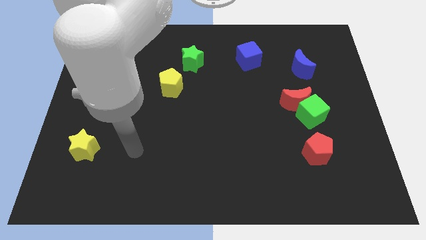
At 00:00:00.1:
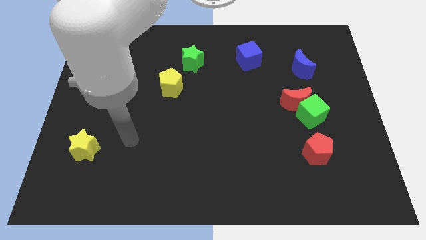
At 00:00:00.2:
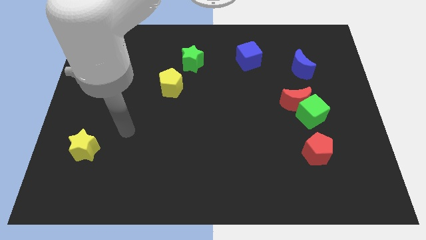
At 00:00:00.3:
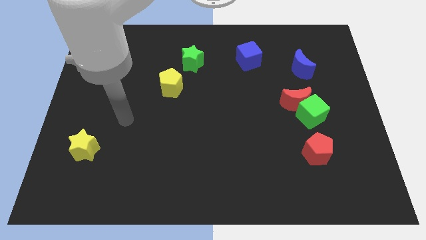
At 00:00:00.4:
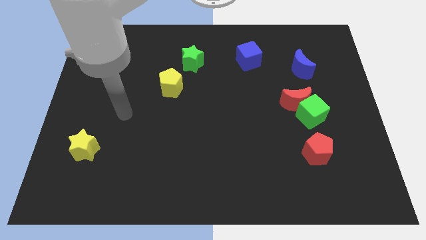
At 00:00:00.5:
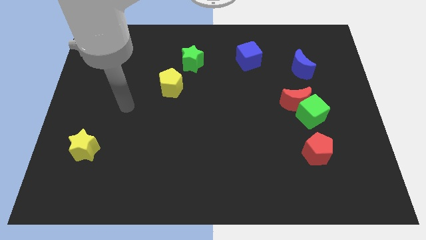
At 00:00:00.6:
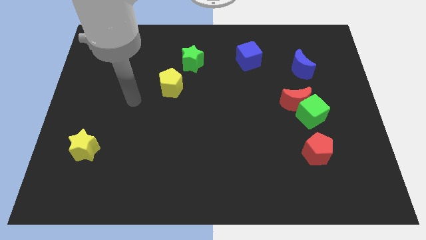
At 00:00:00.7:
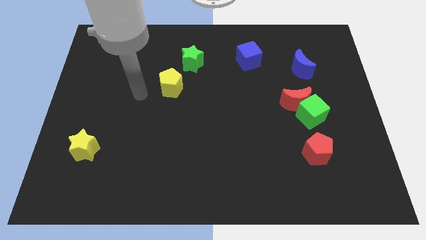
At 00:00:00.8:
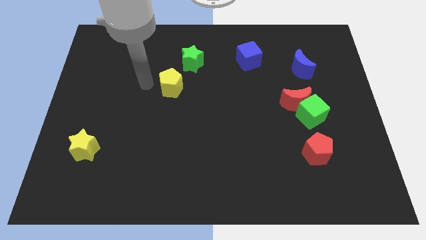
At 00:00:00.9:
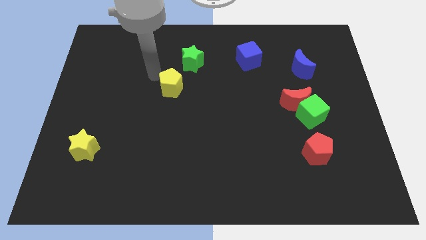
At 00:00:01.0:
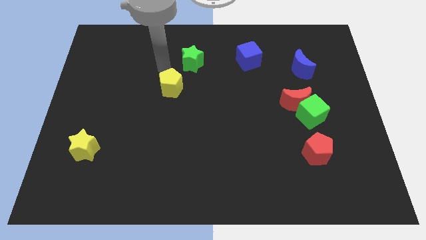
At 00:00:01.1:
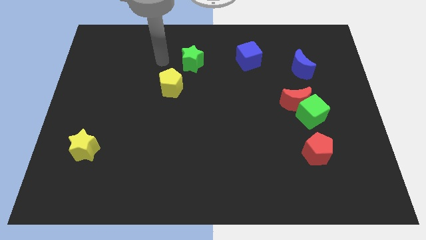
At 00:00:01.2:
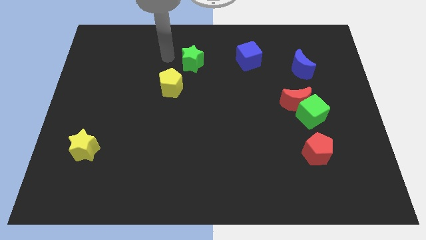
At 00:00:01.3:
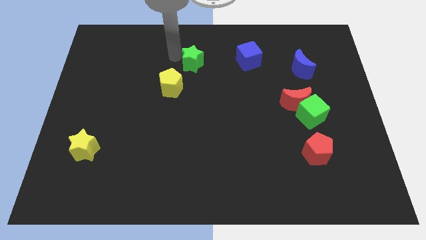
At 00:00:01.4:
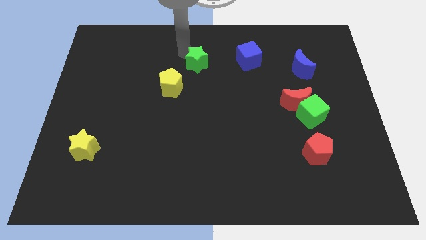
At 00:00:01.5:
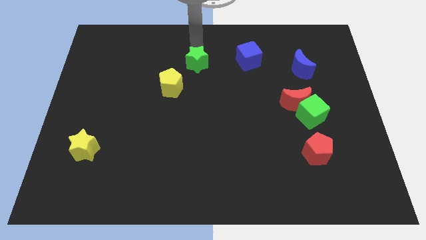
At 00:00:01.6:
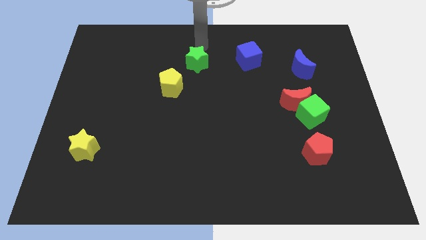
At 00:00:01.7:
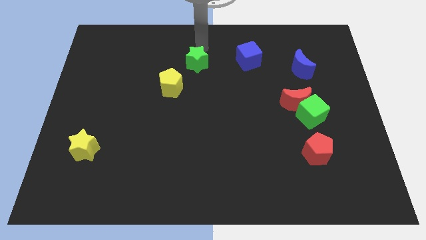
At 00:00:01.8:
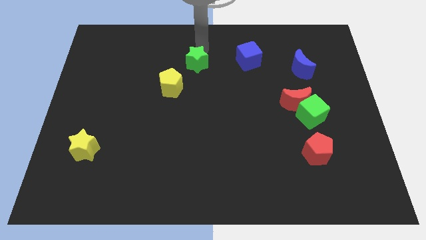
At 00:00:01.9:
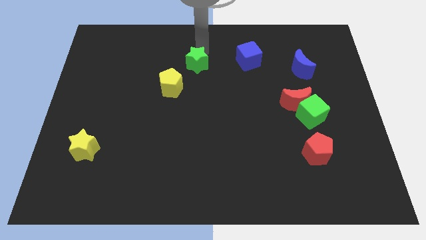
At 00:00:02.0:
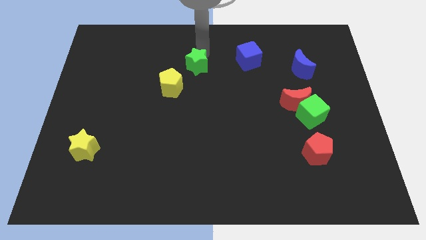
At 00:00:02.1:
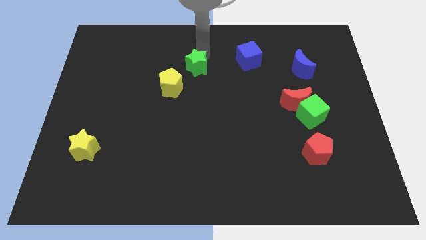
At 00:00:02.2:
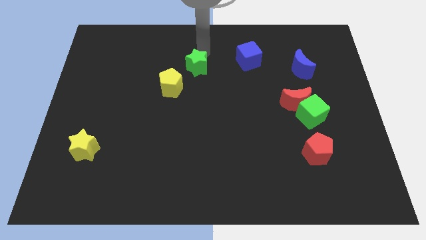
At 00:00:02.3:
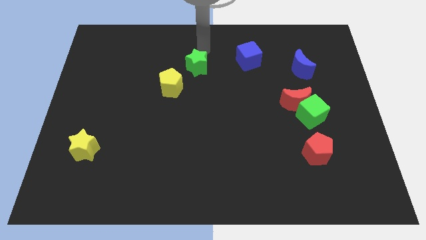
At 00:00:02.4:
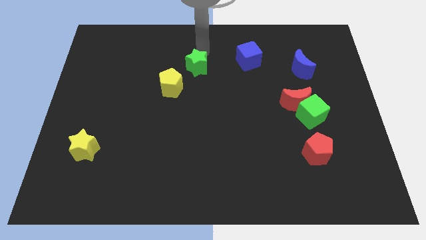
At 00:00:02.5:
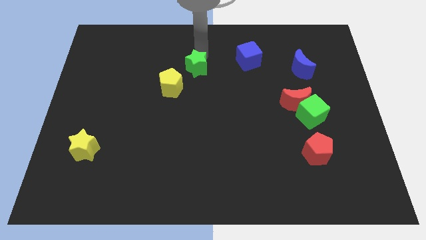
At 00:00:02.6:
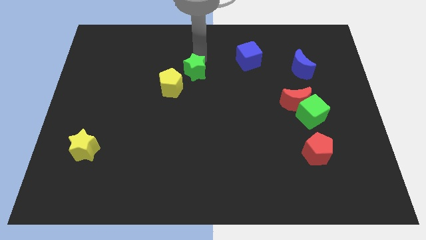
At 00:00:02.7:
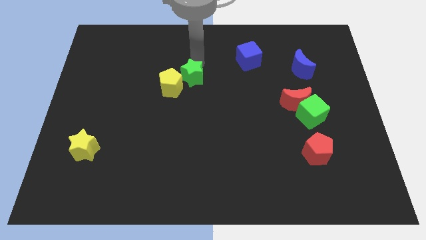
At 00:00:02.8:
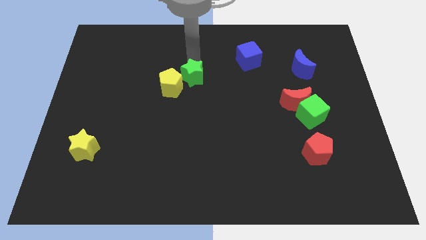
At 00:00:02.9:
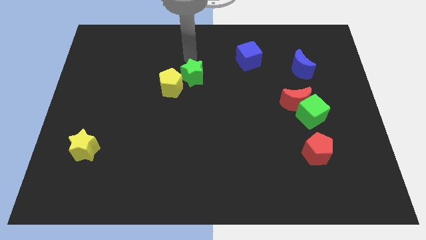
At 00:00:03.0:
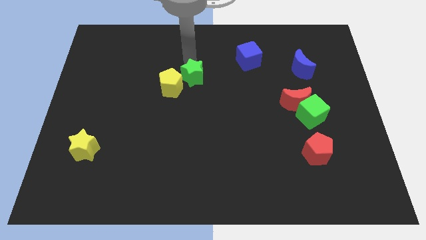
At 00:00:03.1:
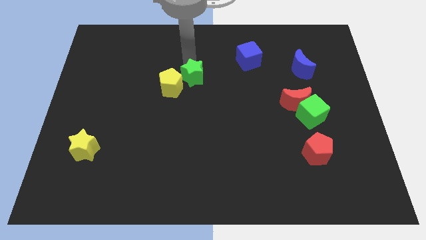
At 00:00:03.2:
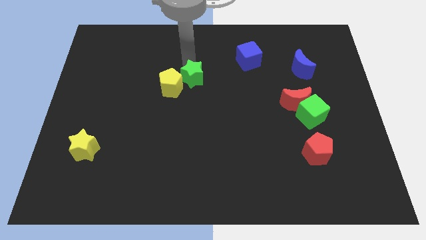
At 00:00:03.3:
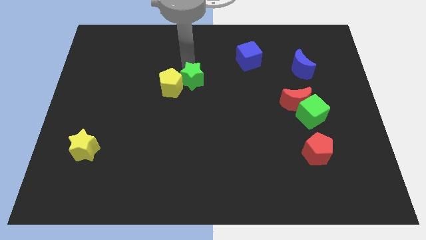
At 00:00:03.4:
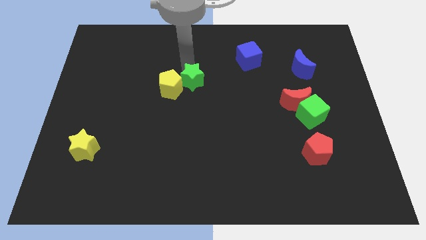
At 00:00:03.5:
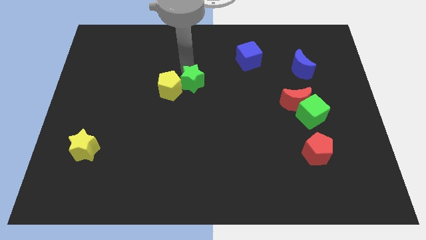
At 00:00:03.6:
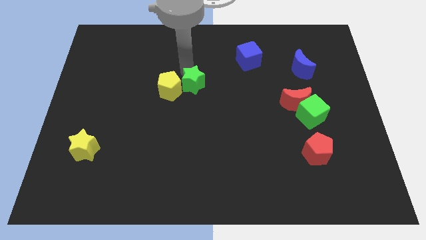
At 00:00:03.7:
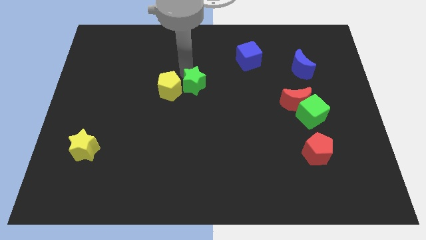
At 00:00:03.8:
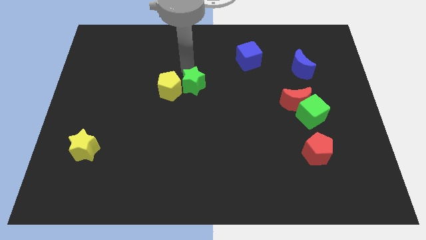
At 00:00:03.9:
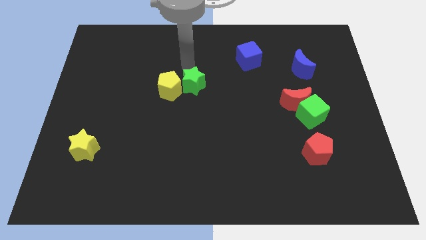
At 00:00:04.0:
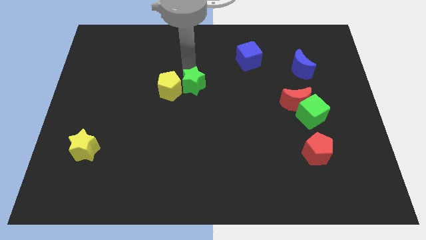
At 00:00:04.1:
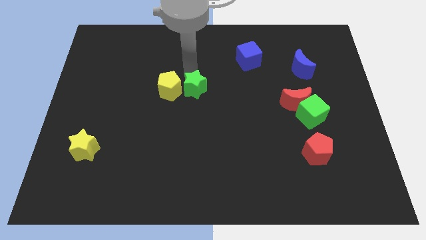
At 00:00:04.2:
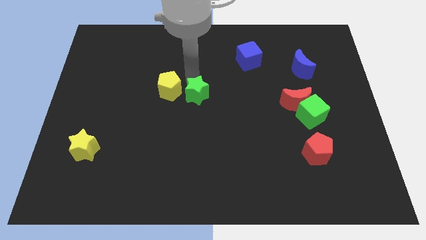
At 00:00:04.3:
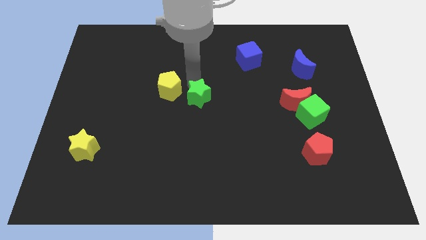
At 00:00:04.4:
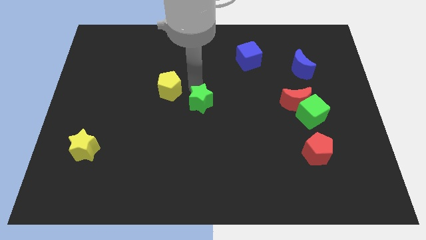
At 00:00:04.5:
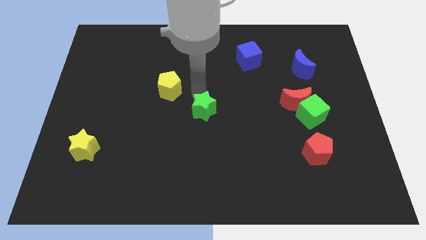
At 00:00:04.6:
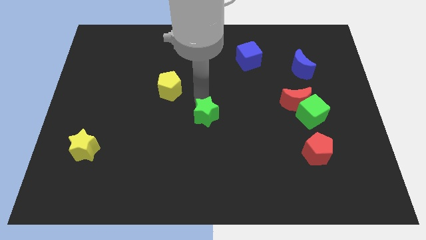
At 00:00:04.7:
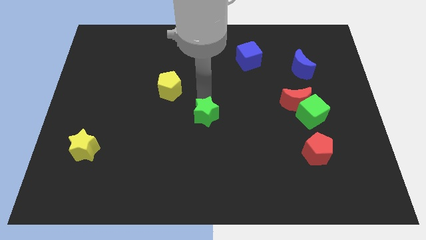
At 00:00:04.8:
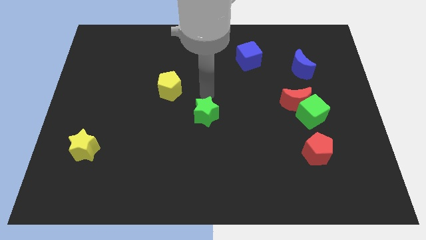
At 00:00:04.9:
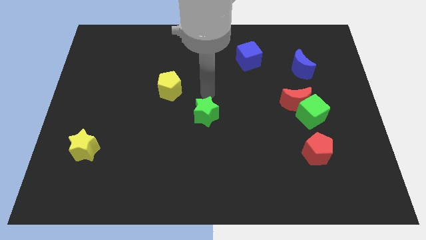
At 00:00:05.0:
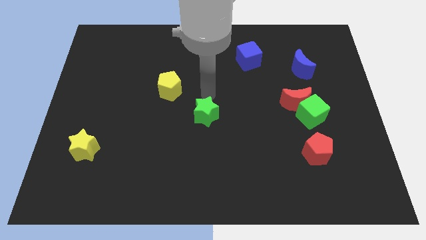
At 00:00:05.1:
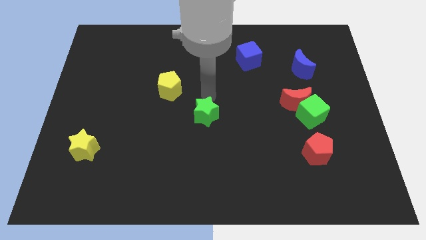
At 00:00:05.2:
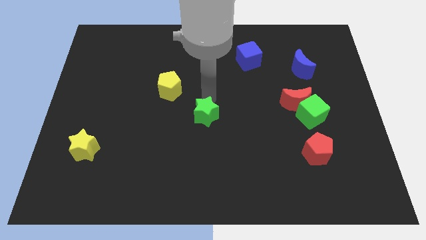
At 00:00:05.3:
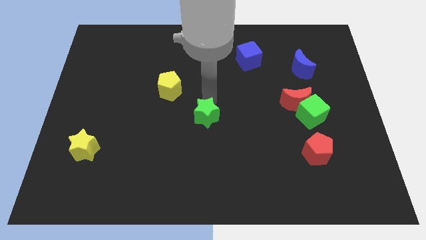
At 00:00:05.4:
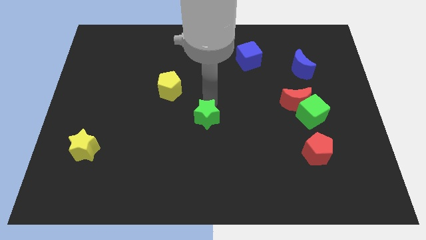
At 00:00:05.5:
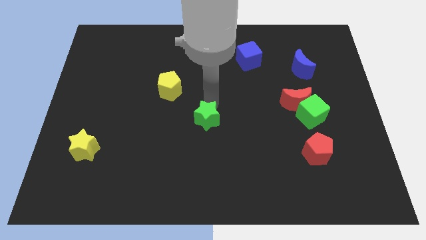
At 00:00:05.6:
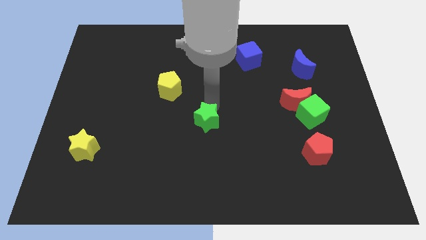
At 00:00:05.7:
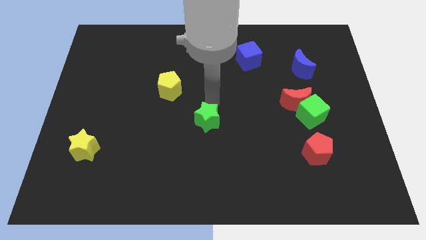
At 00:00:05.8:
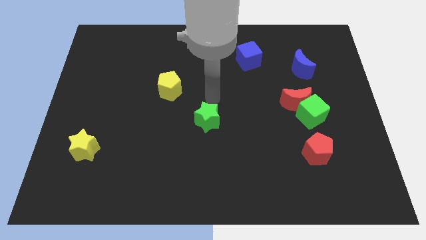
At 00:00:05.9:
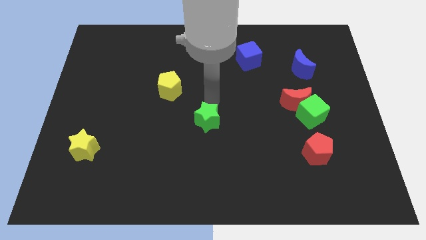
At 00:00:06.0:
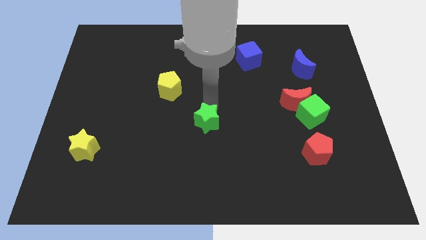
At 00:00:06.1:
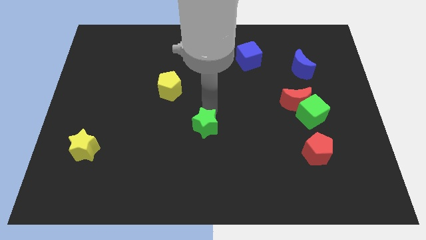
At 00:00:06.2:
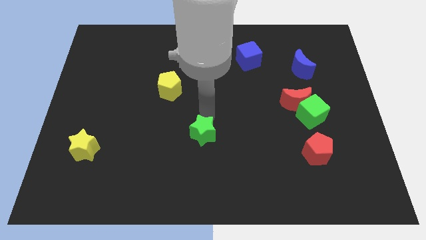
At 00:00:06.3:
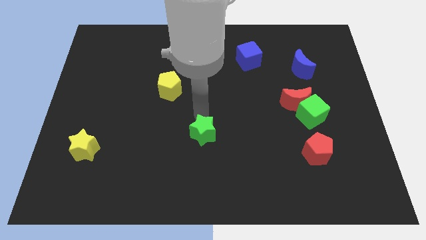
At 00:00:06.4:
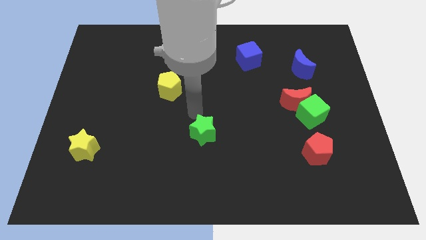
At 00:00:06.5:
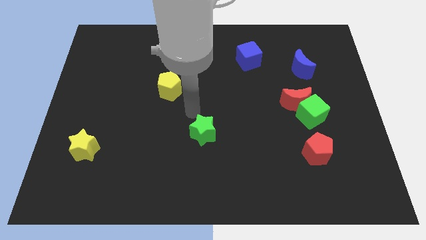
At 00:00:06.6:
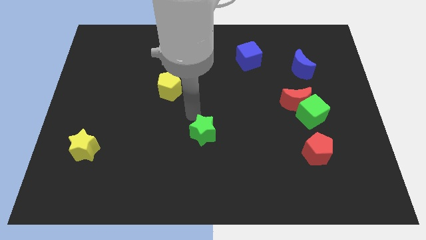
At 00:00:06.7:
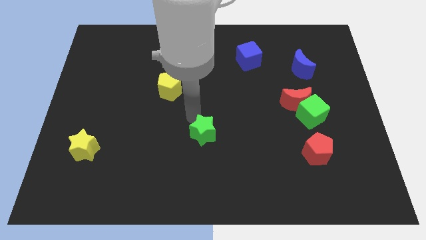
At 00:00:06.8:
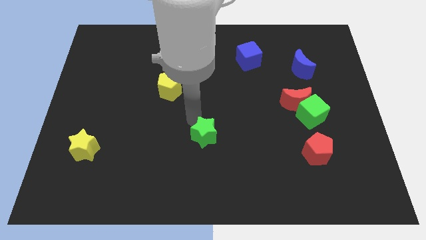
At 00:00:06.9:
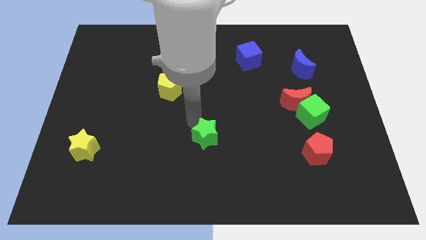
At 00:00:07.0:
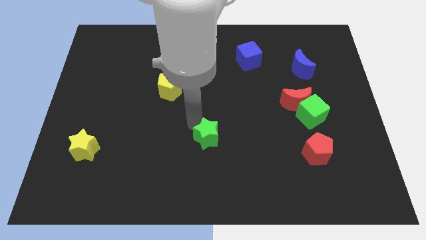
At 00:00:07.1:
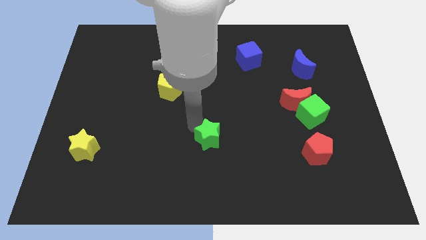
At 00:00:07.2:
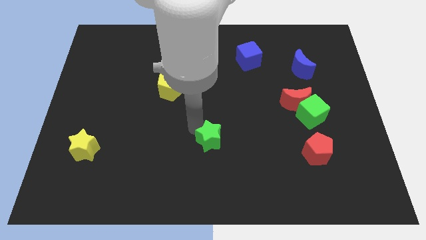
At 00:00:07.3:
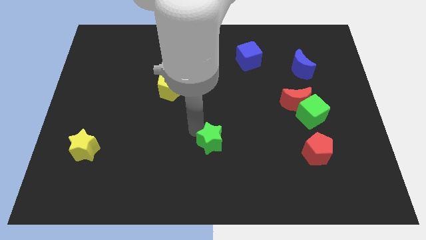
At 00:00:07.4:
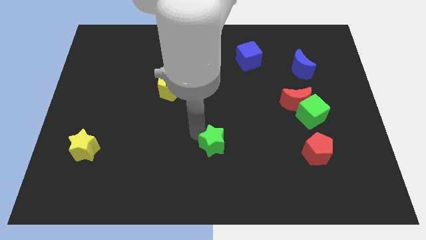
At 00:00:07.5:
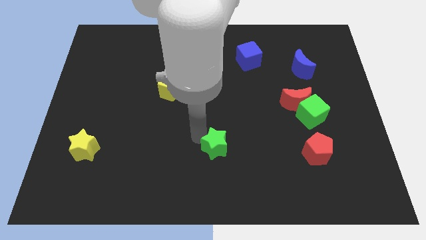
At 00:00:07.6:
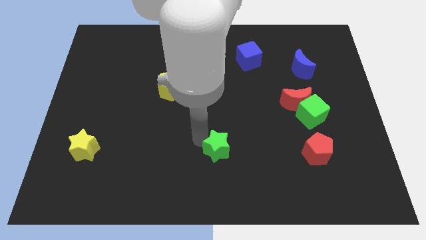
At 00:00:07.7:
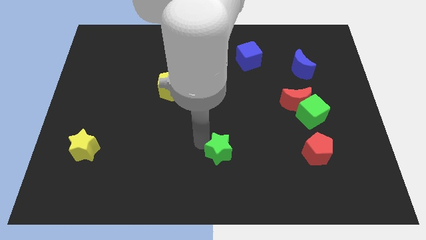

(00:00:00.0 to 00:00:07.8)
put the green star to the bottom side

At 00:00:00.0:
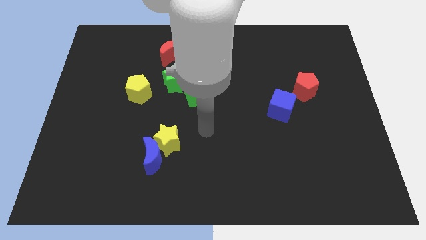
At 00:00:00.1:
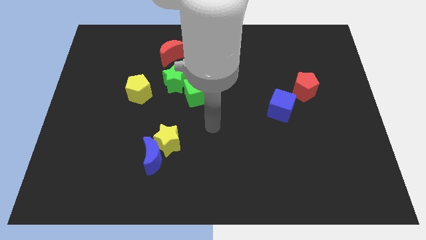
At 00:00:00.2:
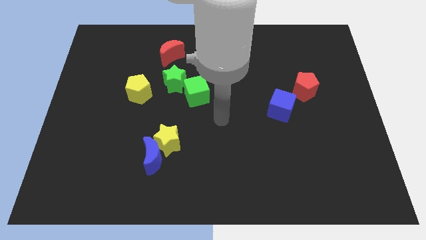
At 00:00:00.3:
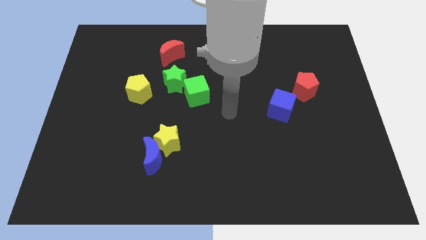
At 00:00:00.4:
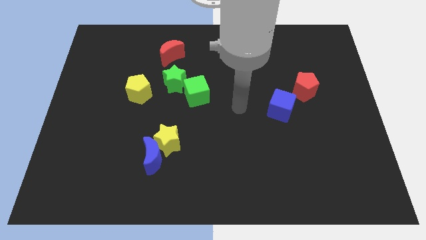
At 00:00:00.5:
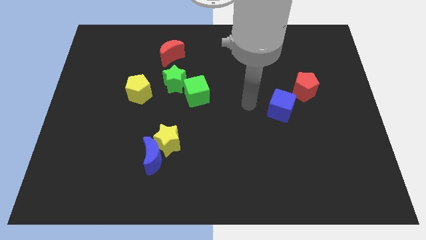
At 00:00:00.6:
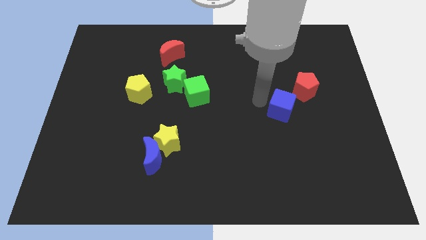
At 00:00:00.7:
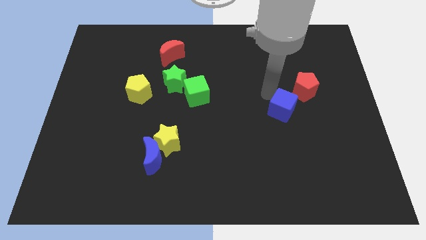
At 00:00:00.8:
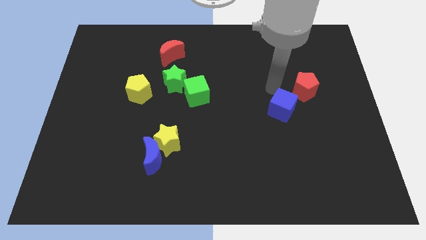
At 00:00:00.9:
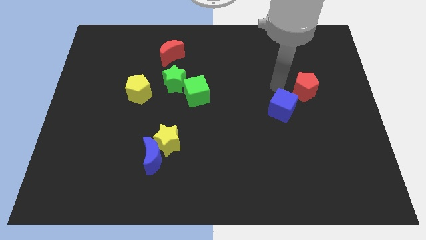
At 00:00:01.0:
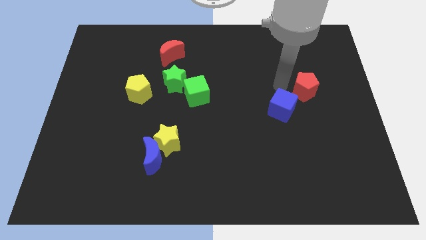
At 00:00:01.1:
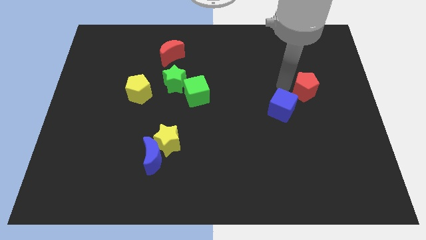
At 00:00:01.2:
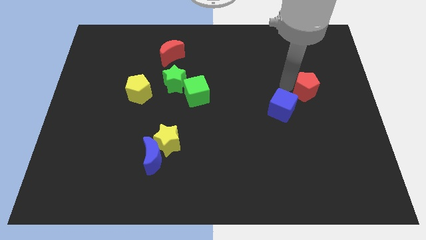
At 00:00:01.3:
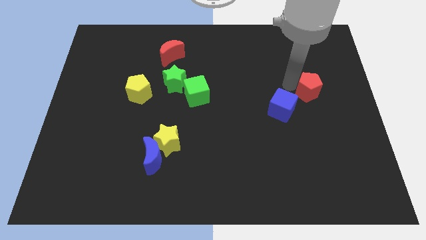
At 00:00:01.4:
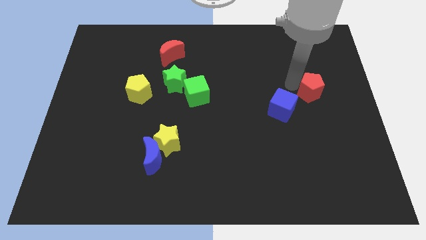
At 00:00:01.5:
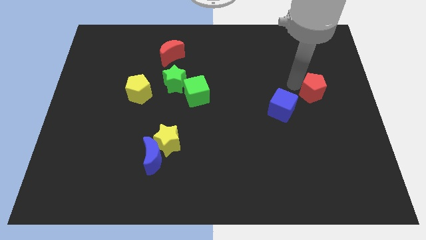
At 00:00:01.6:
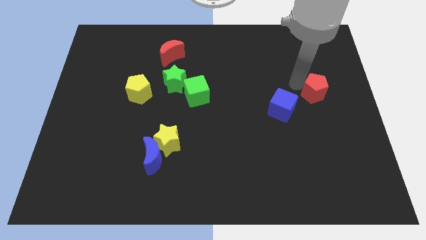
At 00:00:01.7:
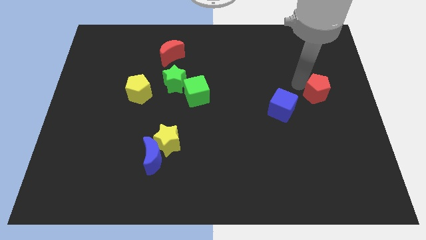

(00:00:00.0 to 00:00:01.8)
slide the red pentagon to the right side
